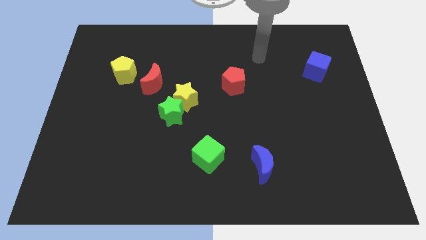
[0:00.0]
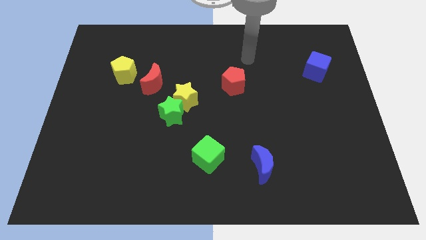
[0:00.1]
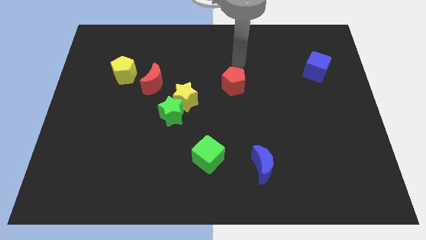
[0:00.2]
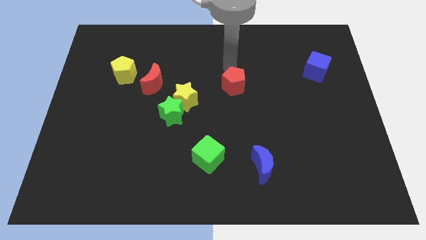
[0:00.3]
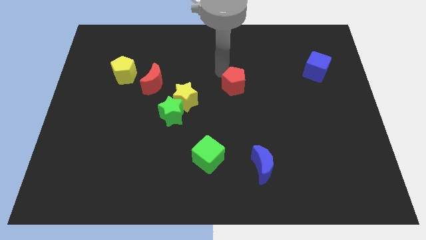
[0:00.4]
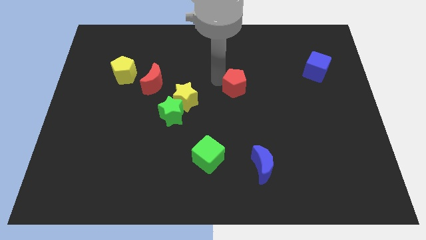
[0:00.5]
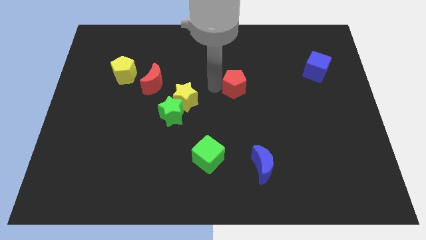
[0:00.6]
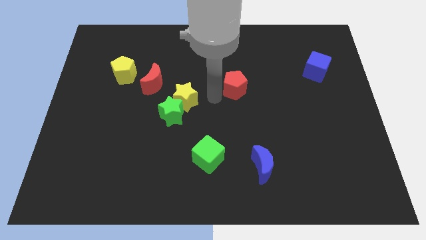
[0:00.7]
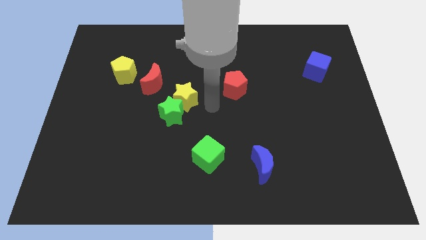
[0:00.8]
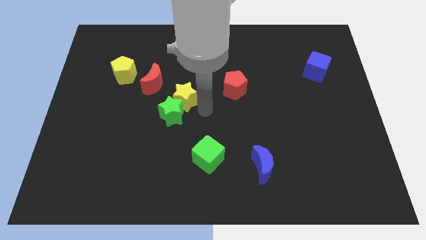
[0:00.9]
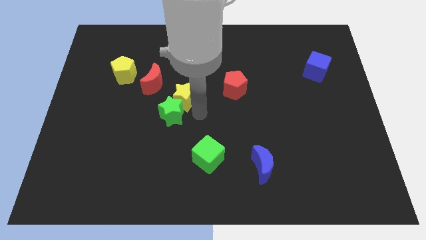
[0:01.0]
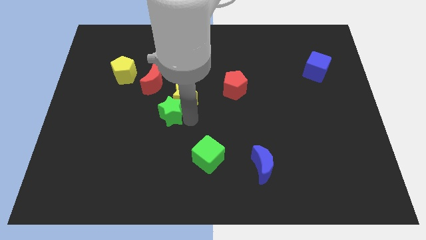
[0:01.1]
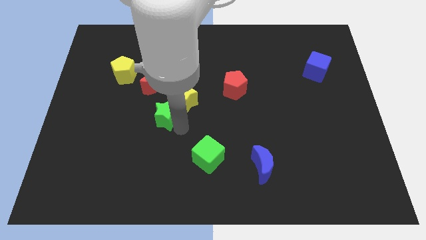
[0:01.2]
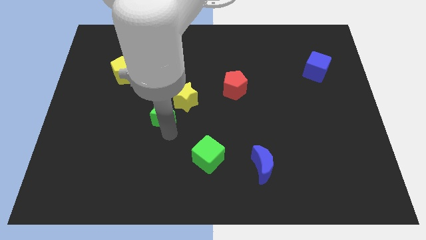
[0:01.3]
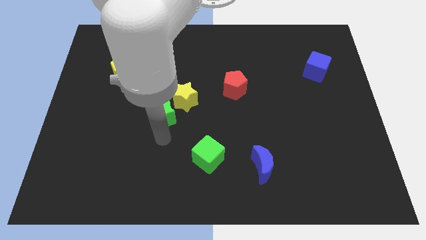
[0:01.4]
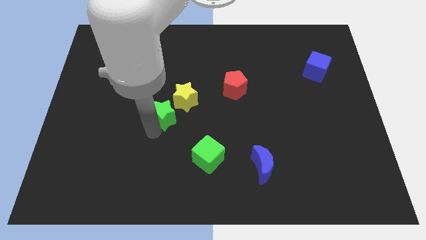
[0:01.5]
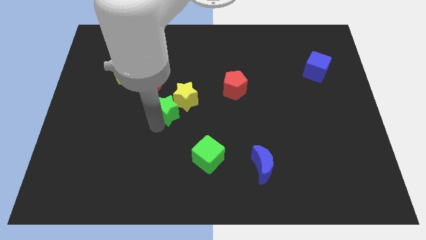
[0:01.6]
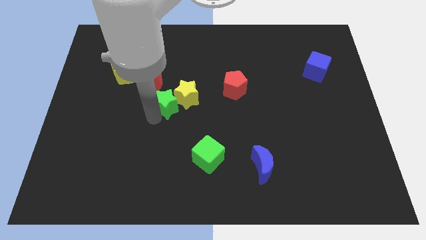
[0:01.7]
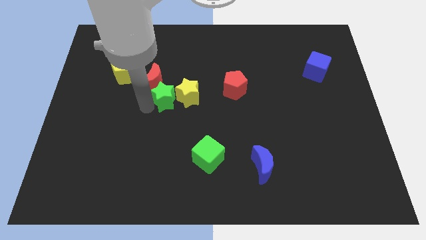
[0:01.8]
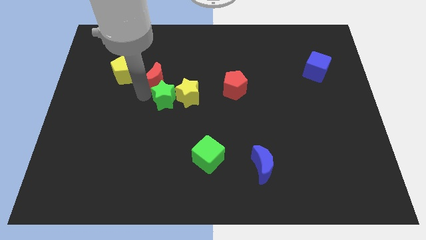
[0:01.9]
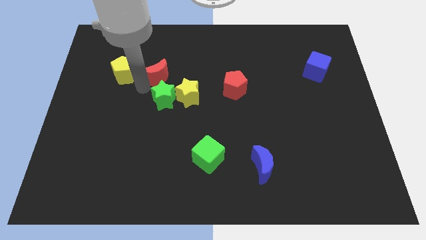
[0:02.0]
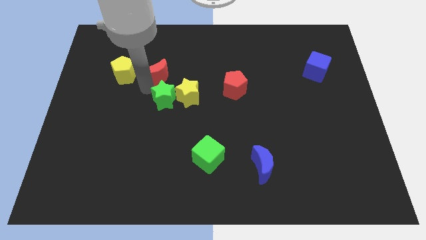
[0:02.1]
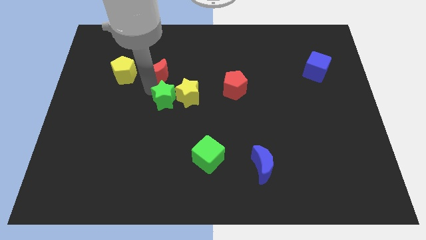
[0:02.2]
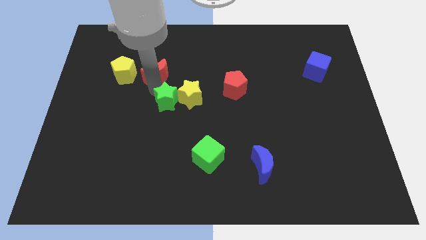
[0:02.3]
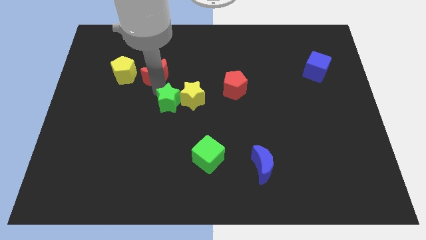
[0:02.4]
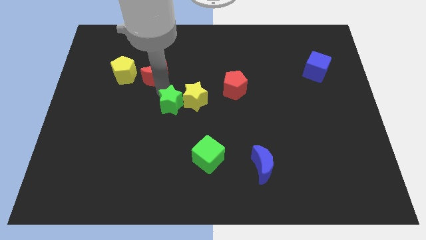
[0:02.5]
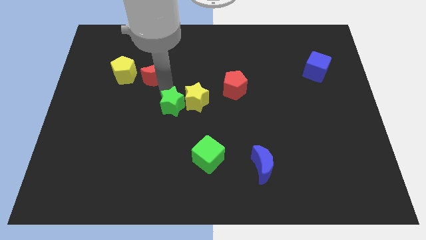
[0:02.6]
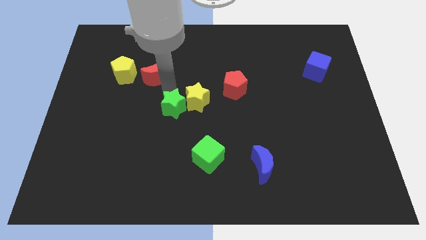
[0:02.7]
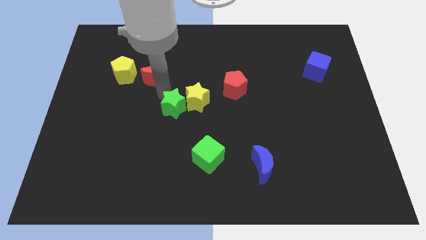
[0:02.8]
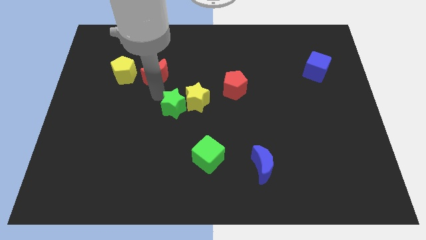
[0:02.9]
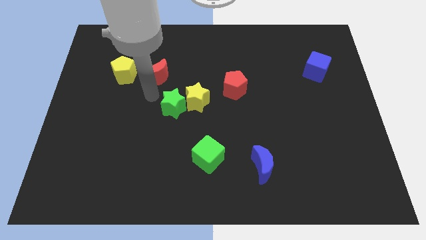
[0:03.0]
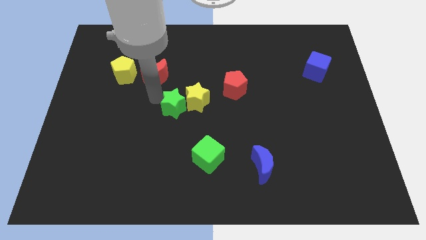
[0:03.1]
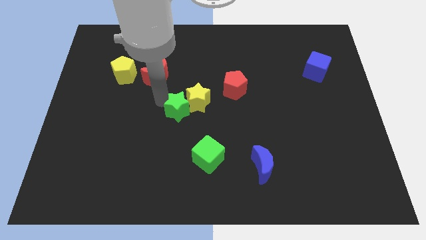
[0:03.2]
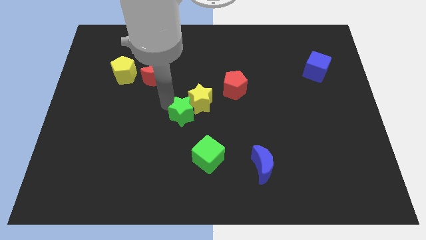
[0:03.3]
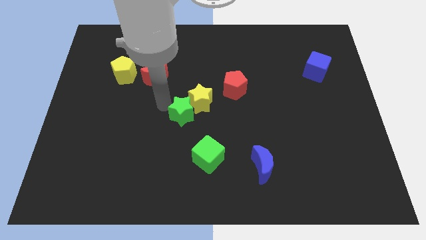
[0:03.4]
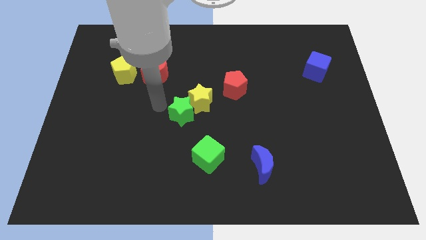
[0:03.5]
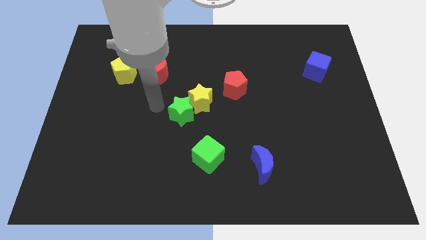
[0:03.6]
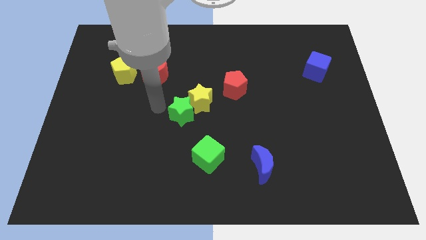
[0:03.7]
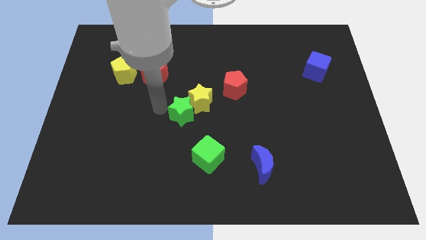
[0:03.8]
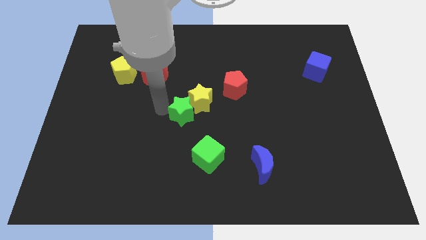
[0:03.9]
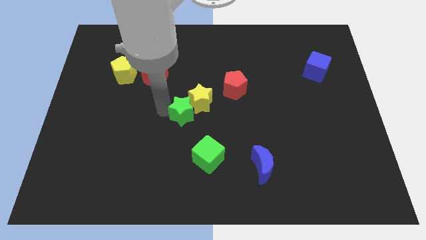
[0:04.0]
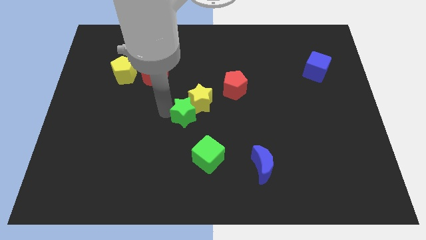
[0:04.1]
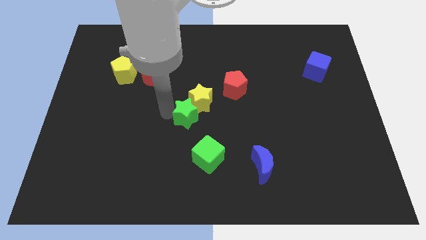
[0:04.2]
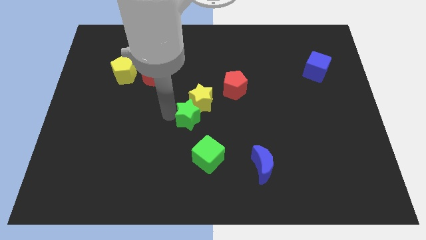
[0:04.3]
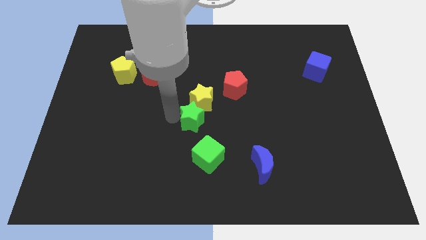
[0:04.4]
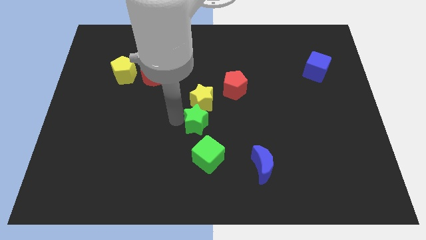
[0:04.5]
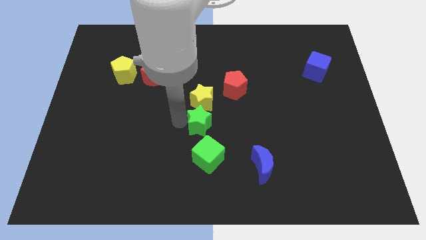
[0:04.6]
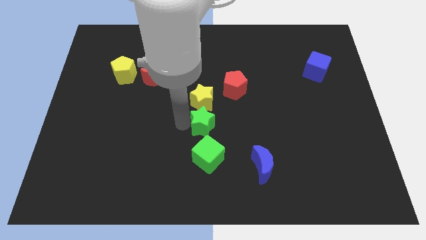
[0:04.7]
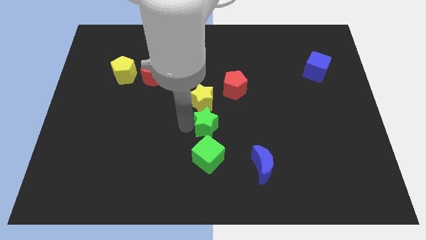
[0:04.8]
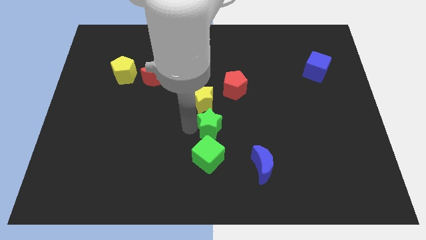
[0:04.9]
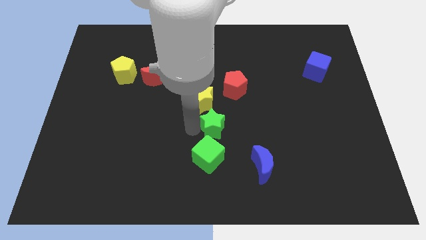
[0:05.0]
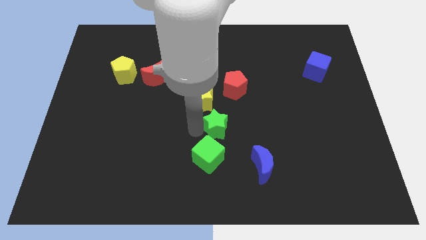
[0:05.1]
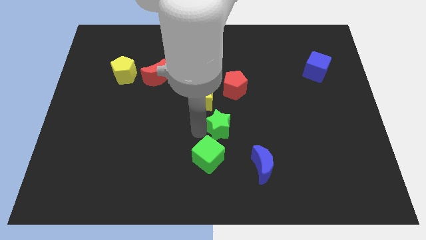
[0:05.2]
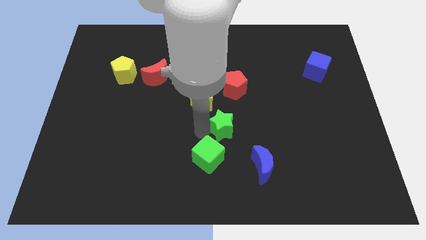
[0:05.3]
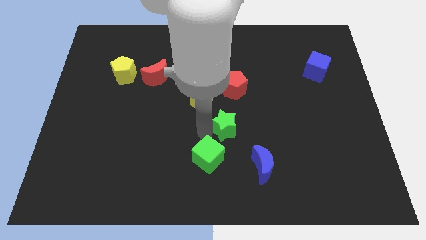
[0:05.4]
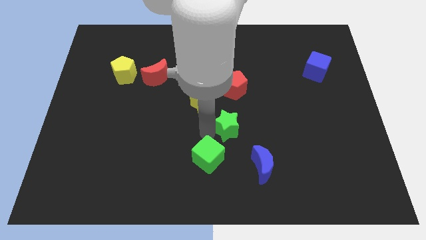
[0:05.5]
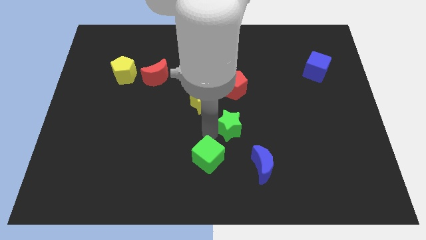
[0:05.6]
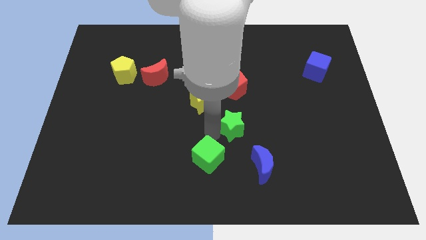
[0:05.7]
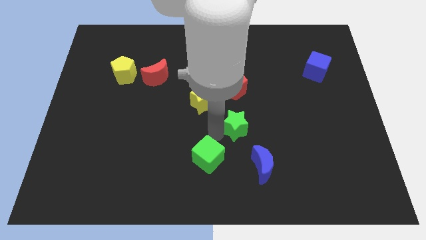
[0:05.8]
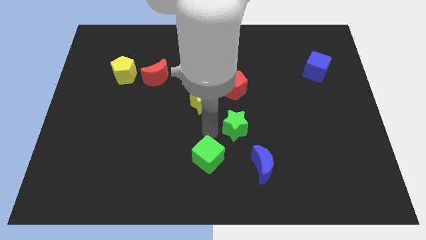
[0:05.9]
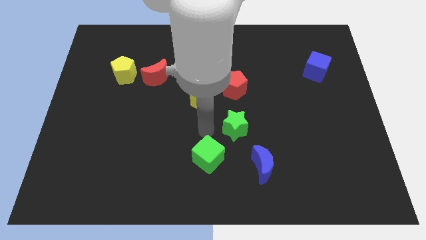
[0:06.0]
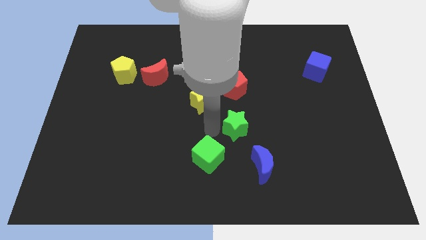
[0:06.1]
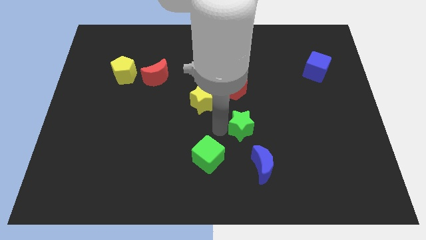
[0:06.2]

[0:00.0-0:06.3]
move the green star above the blue moon
